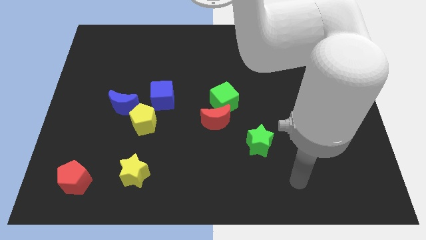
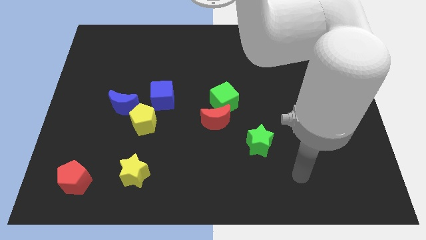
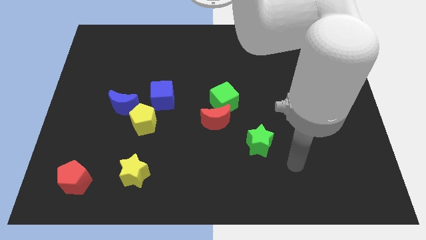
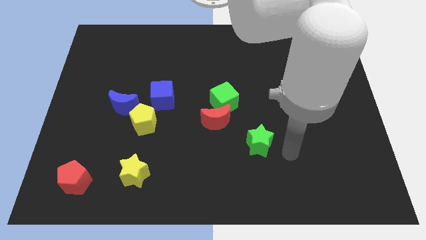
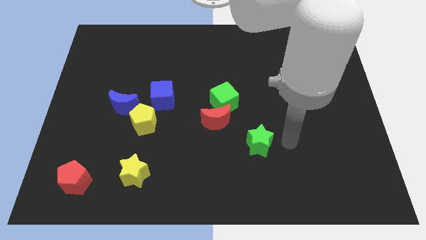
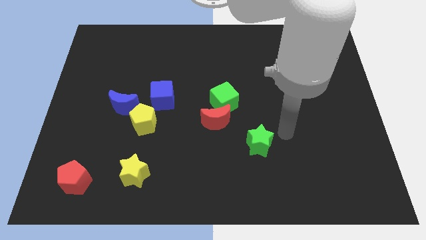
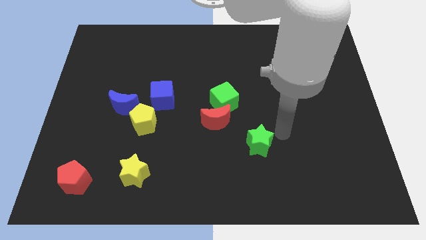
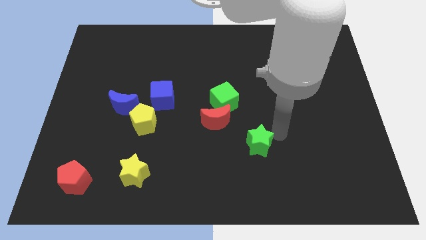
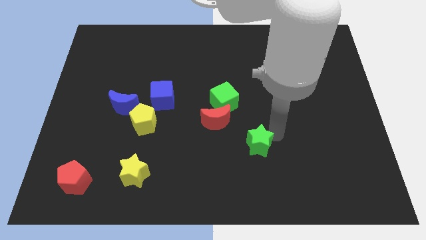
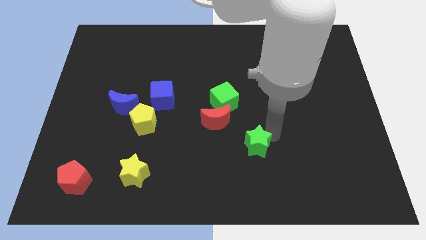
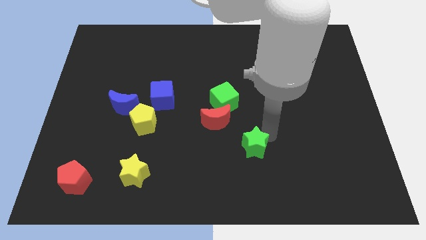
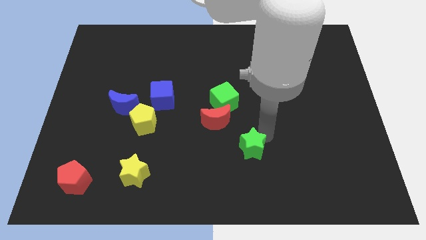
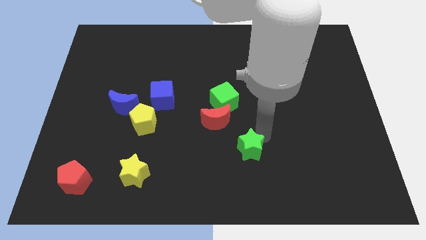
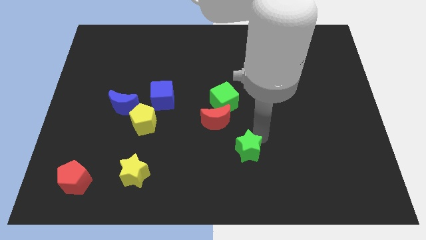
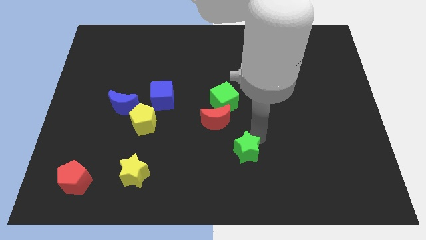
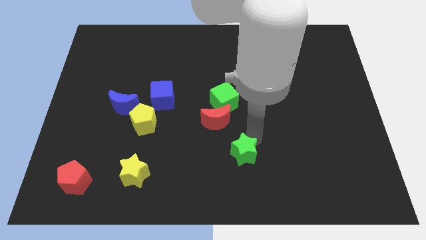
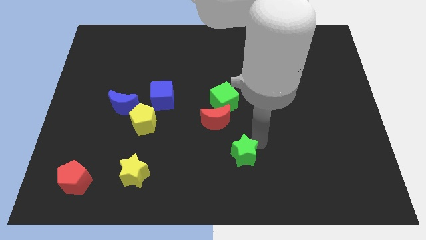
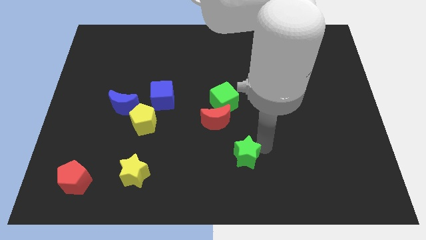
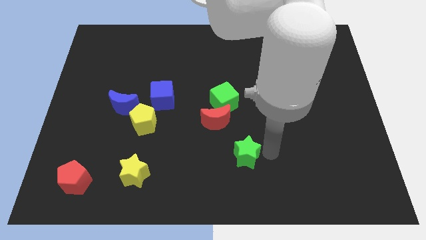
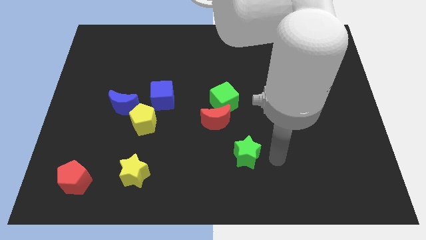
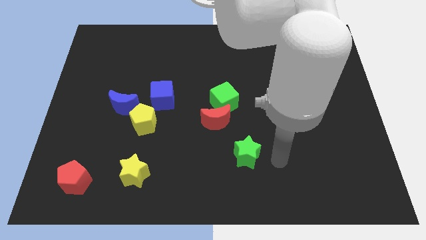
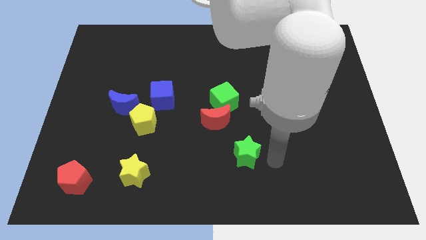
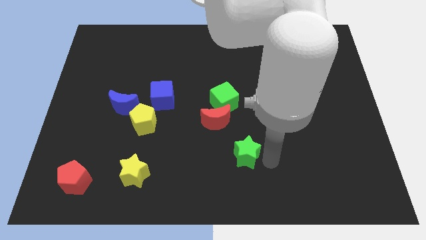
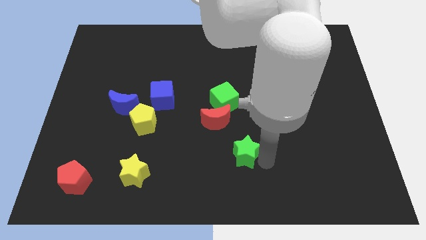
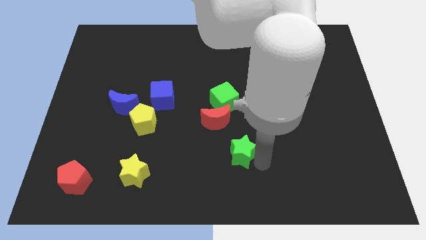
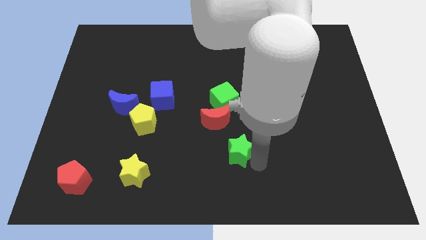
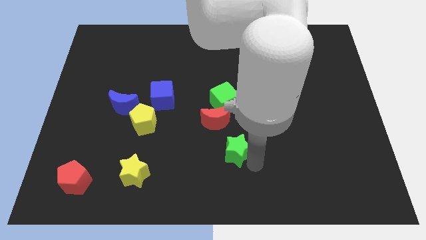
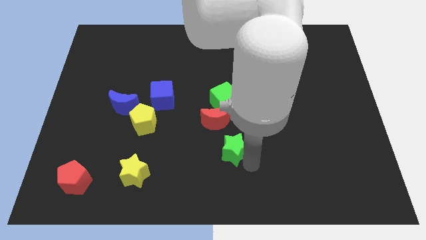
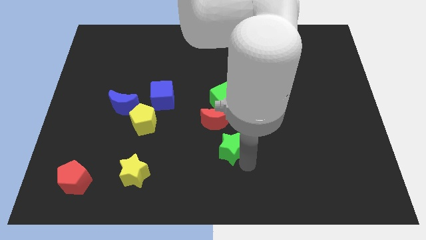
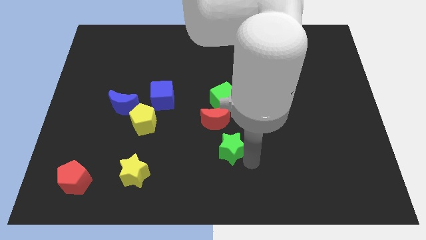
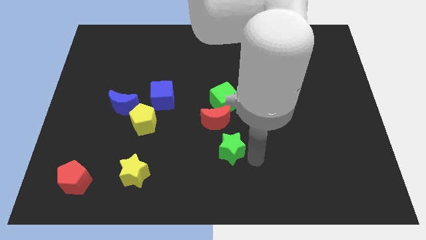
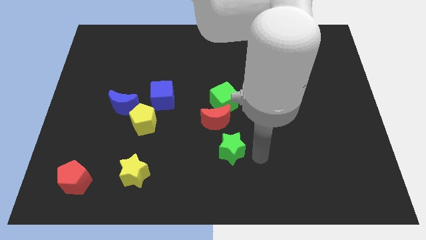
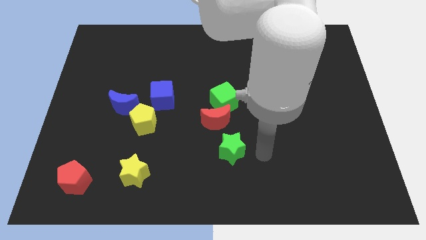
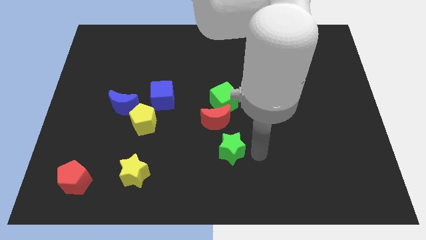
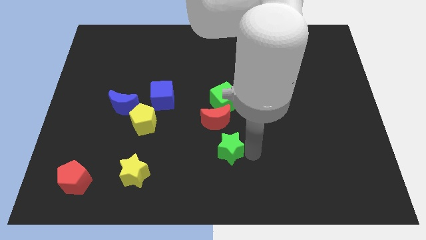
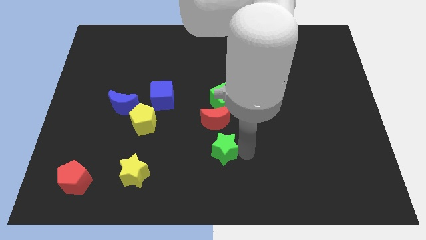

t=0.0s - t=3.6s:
push the green star to the left a little bit

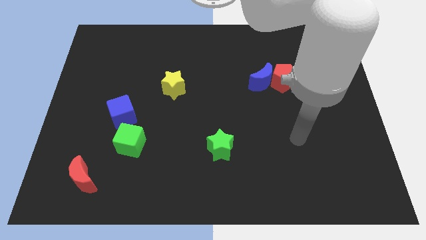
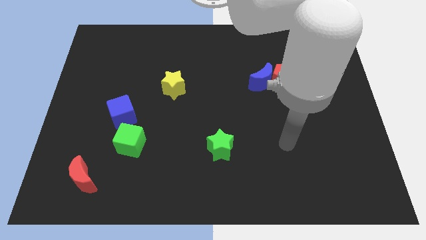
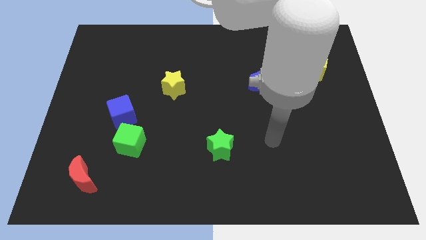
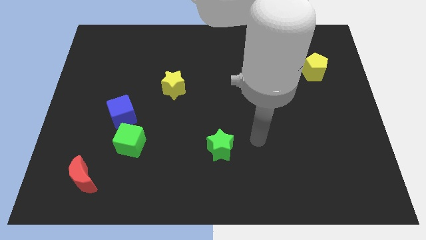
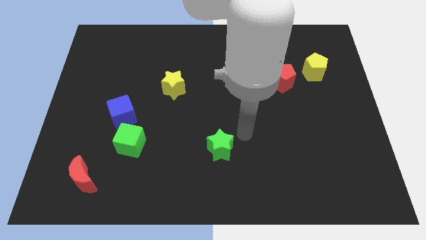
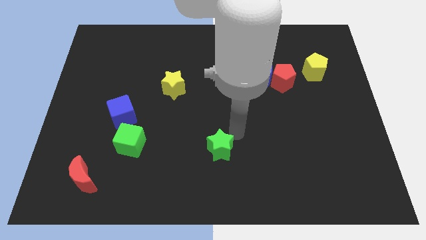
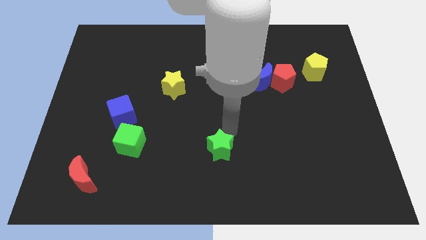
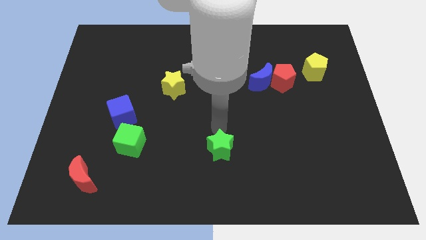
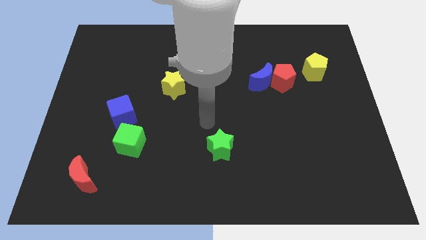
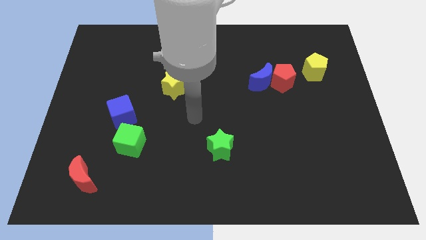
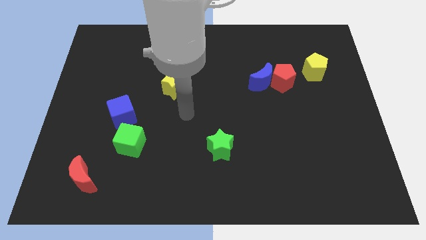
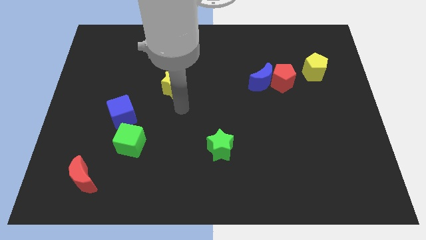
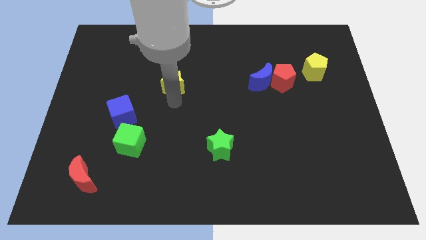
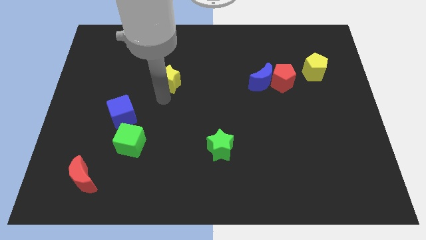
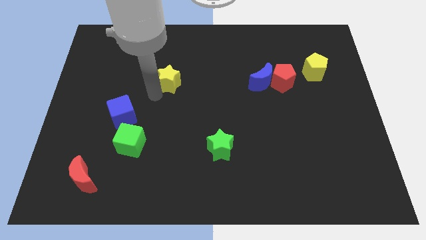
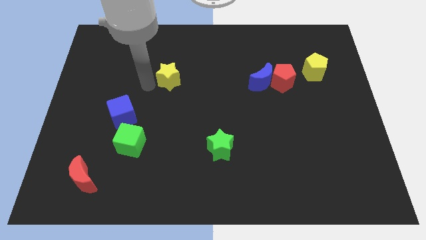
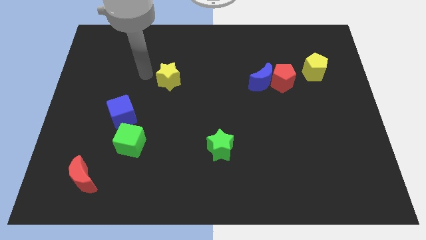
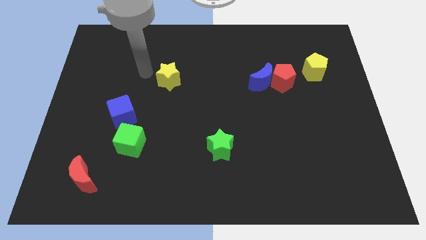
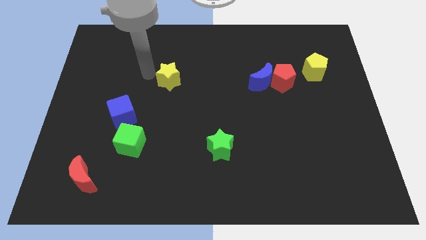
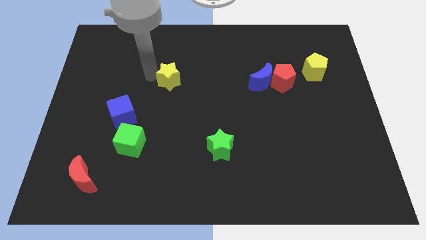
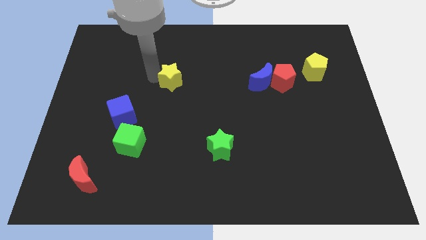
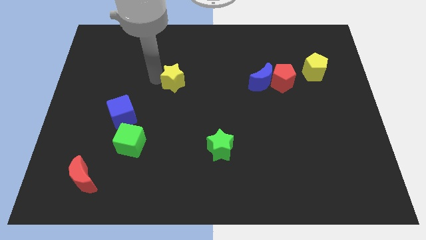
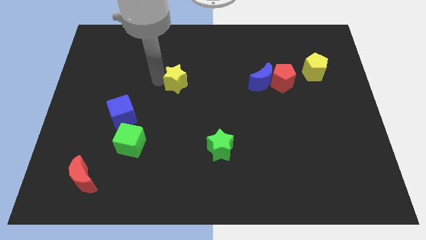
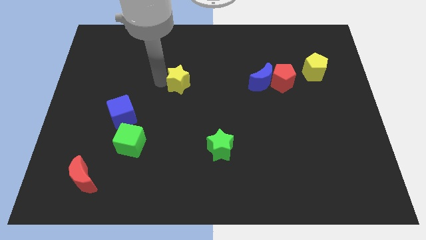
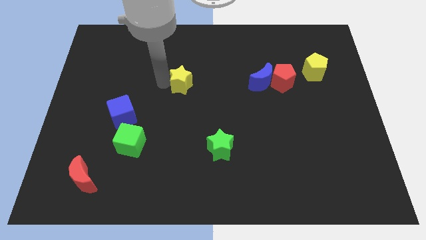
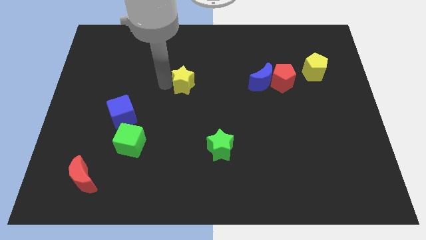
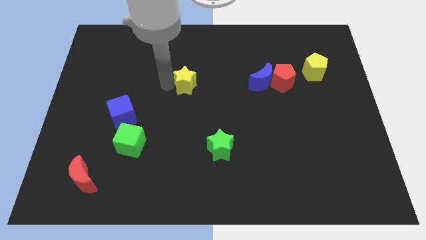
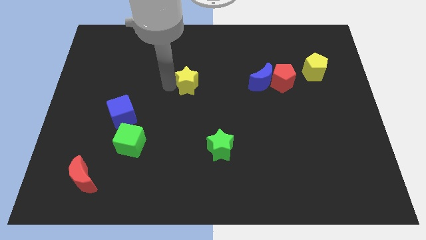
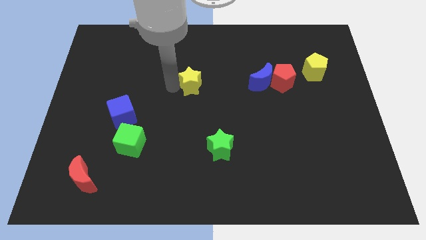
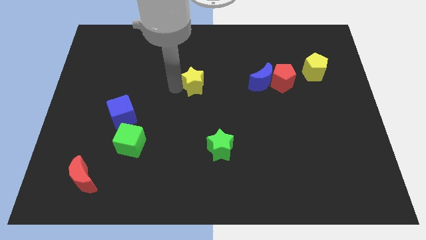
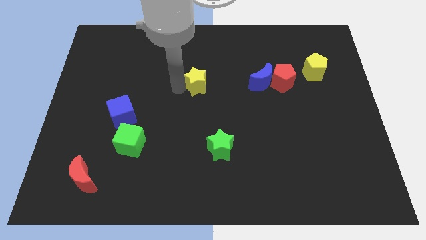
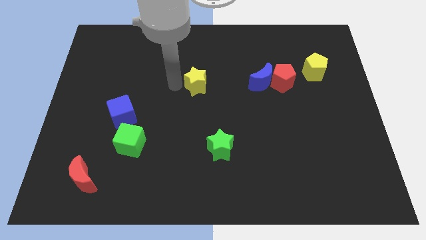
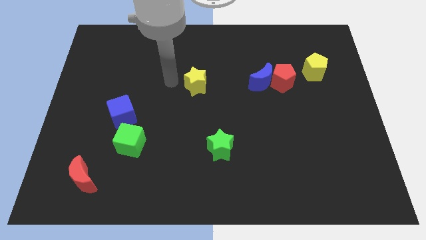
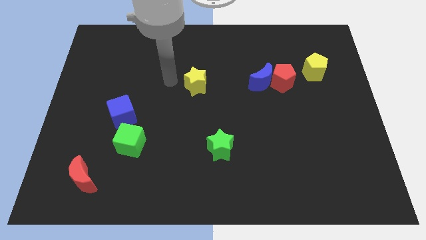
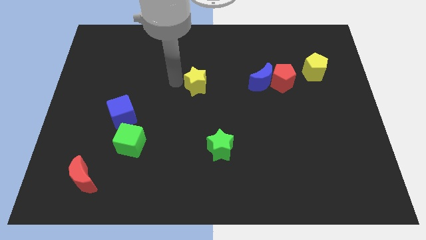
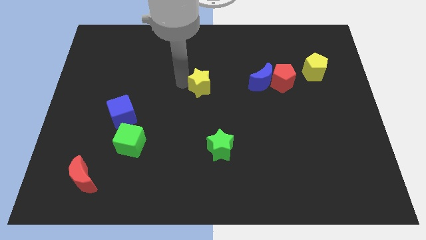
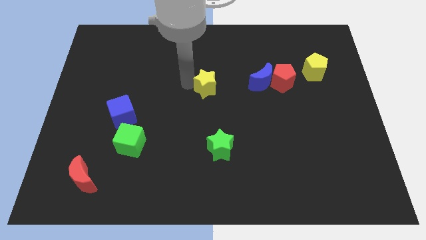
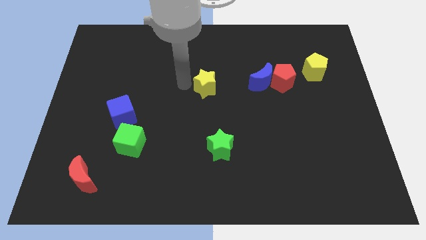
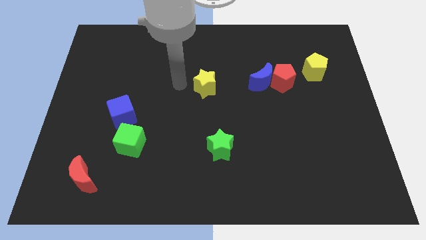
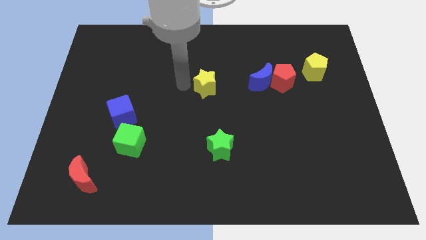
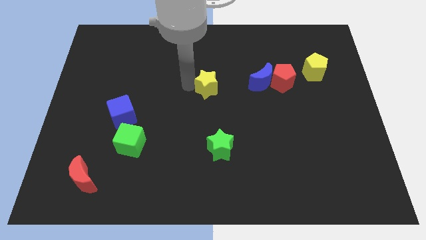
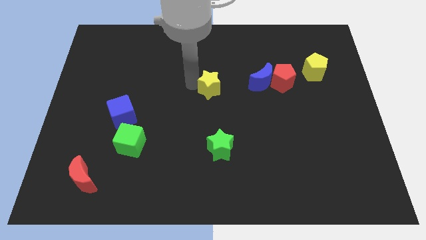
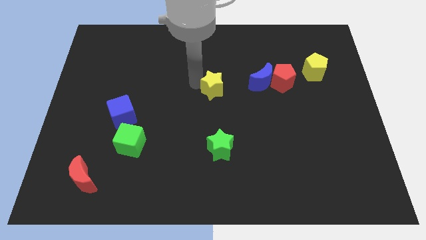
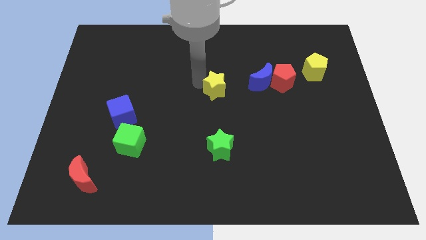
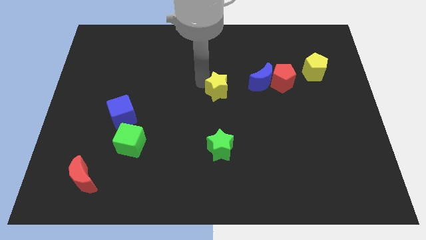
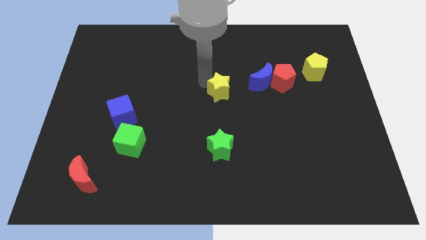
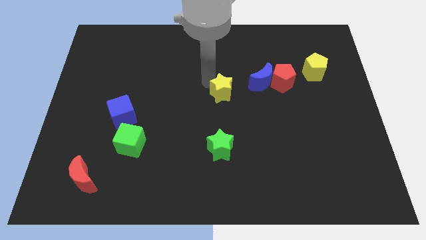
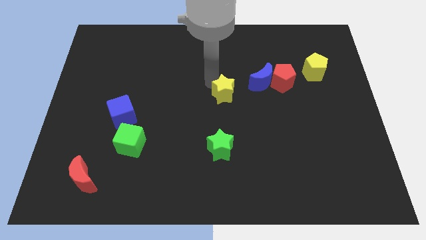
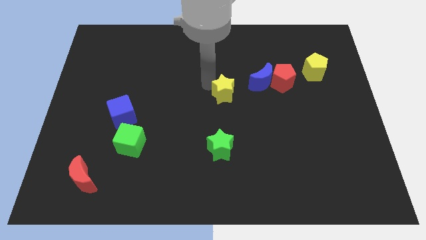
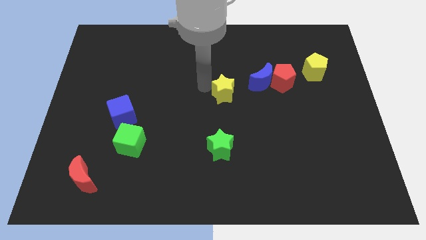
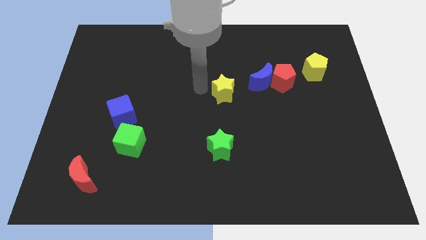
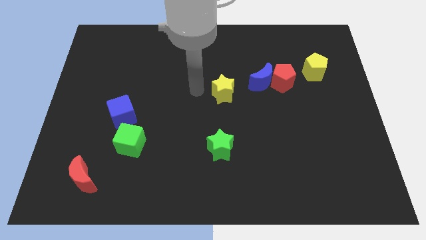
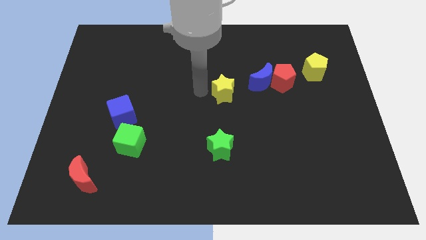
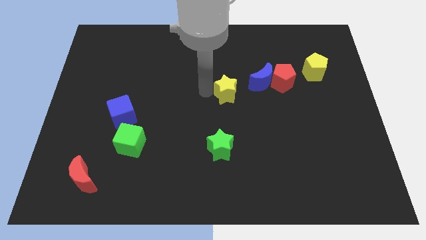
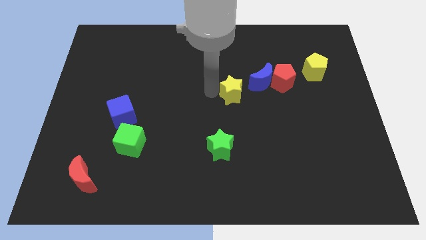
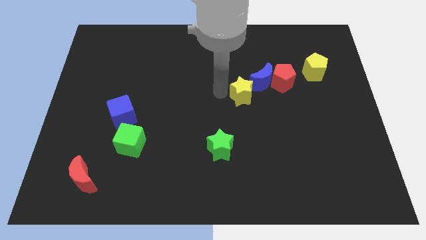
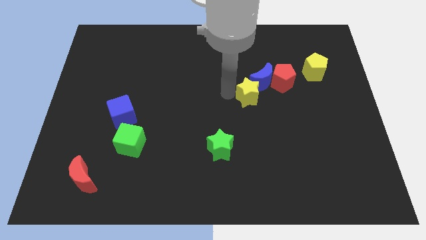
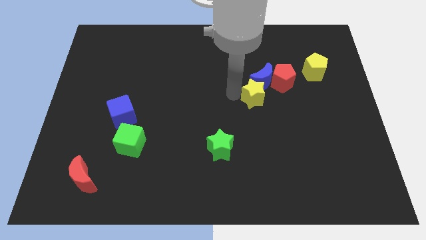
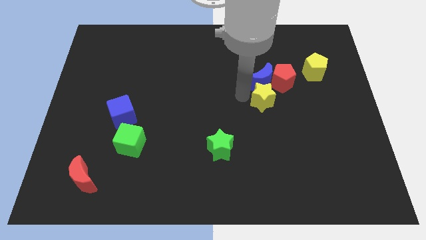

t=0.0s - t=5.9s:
slide the yellow star to the right
